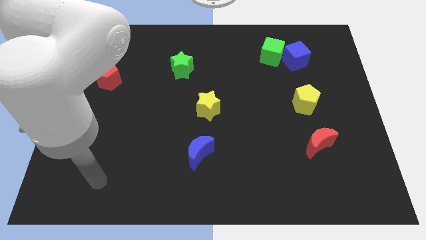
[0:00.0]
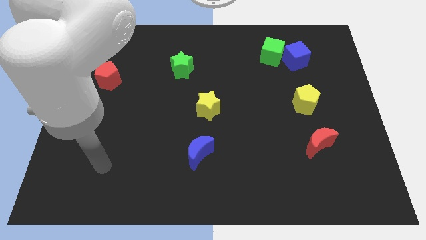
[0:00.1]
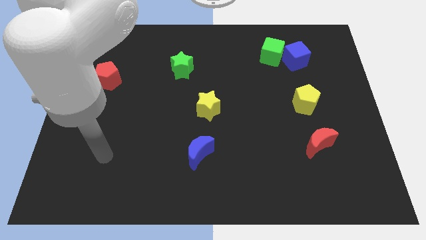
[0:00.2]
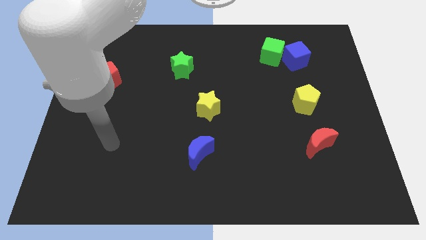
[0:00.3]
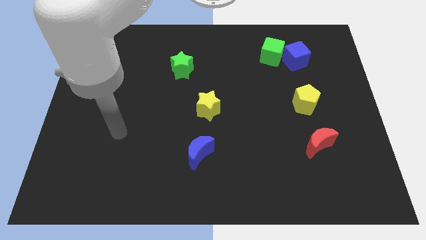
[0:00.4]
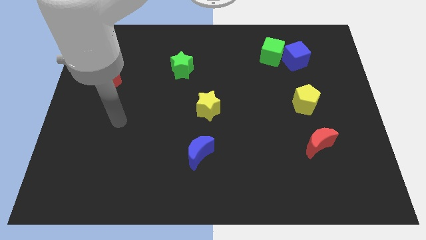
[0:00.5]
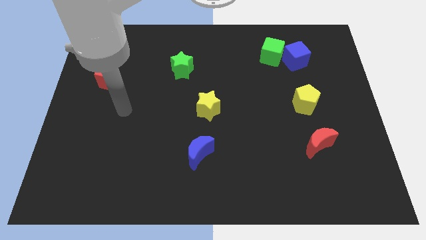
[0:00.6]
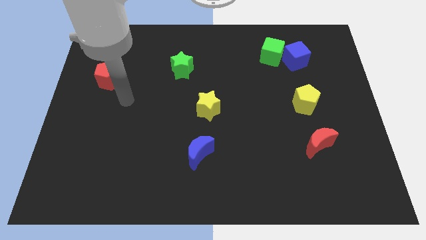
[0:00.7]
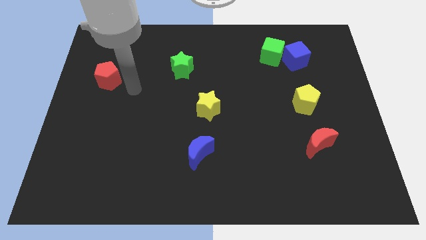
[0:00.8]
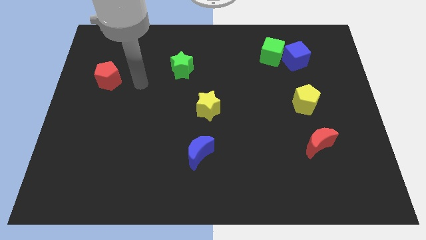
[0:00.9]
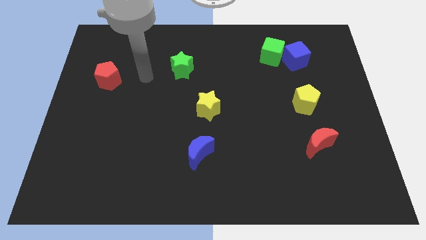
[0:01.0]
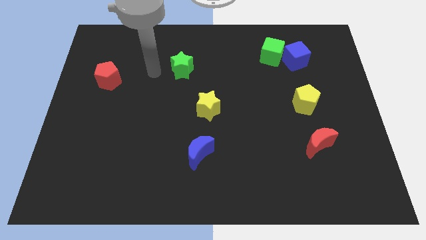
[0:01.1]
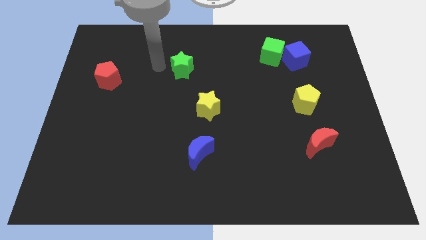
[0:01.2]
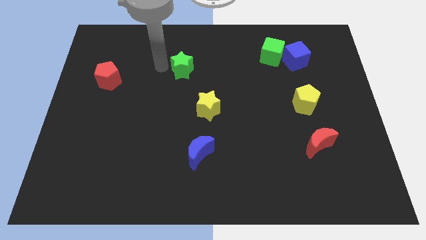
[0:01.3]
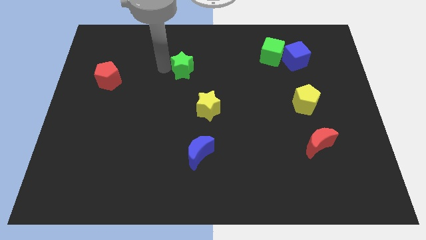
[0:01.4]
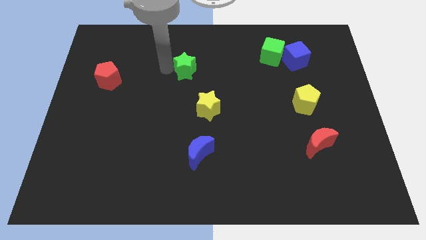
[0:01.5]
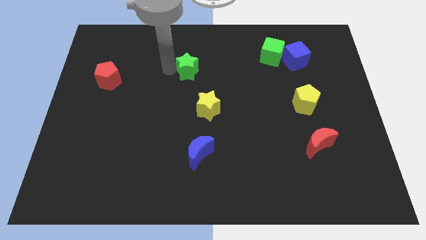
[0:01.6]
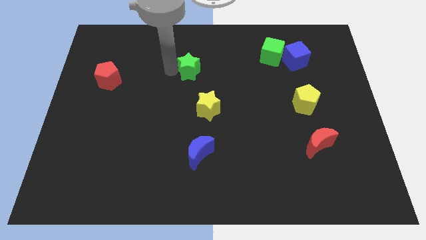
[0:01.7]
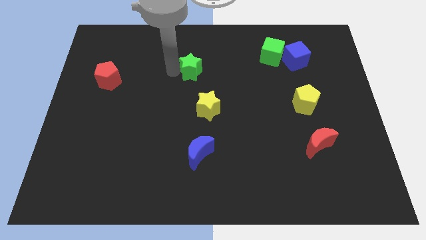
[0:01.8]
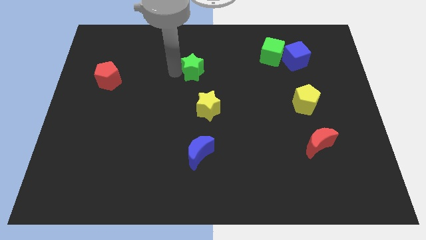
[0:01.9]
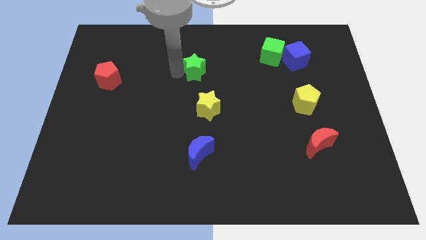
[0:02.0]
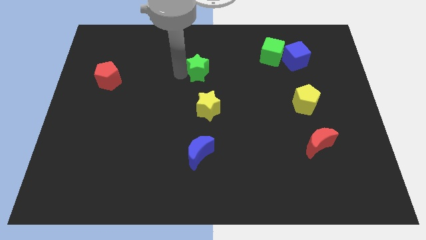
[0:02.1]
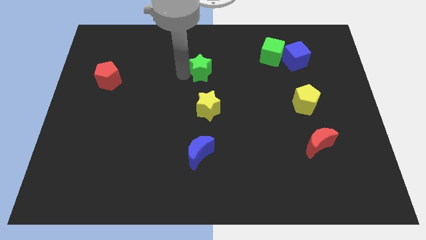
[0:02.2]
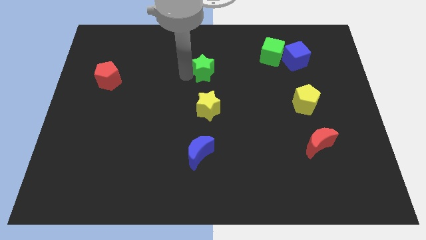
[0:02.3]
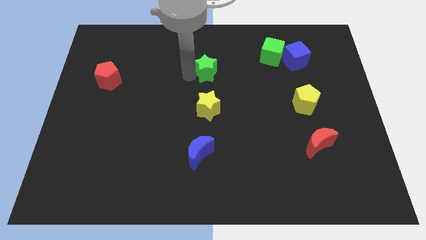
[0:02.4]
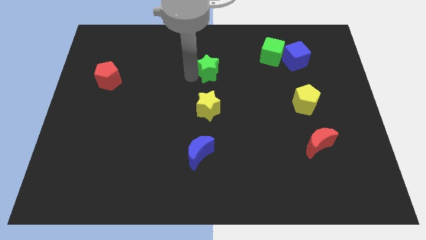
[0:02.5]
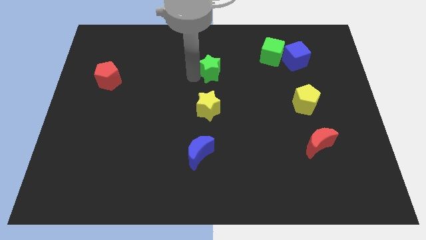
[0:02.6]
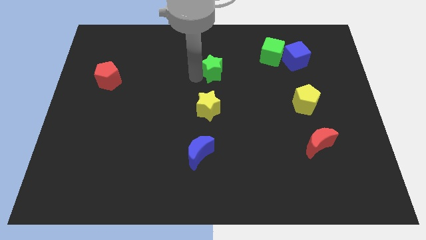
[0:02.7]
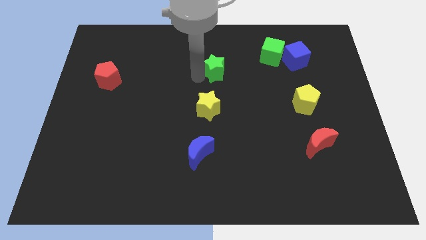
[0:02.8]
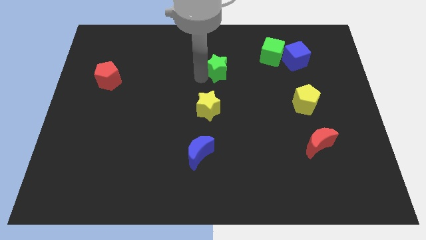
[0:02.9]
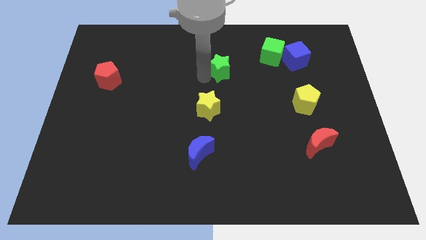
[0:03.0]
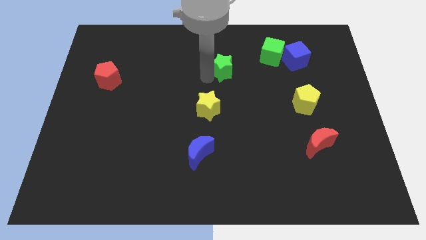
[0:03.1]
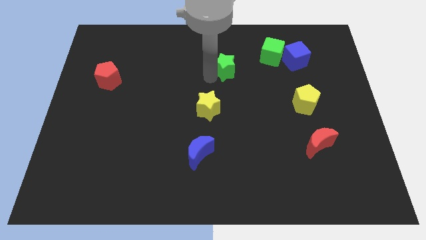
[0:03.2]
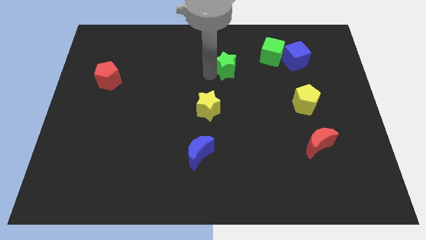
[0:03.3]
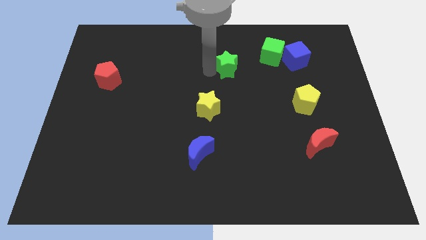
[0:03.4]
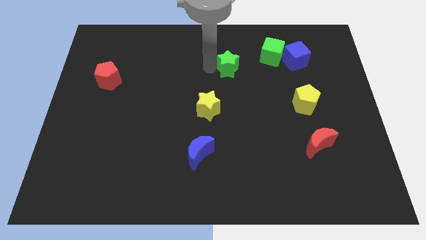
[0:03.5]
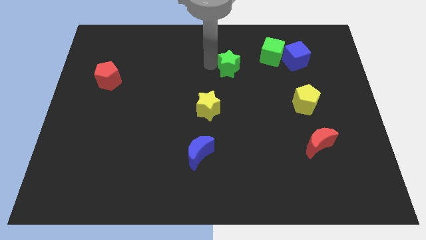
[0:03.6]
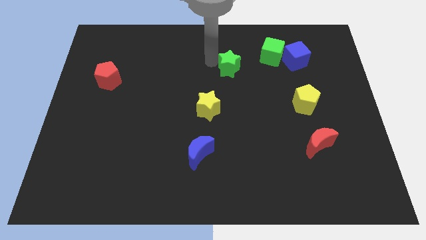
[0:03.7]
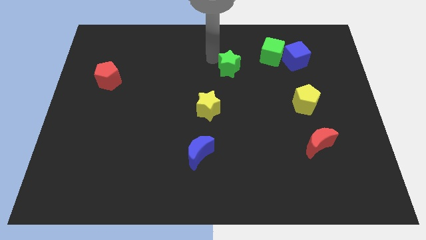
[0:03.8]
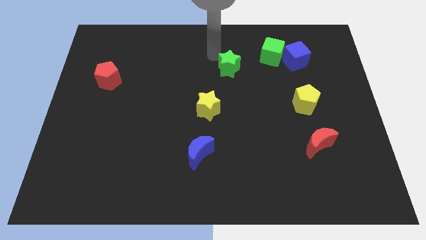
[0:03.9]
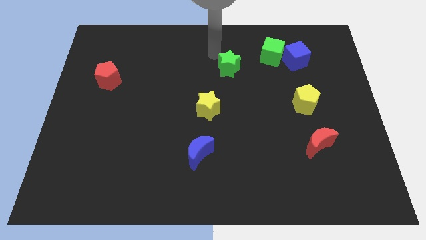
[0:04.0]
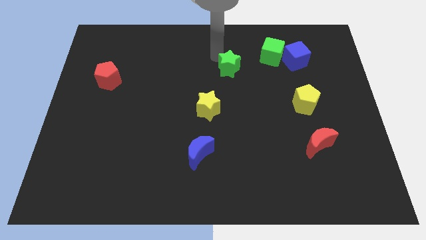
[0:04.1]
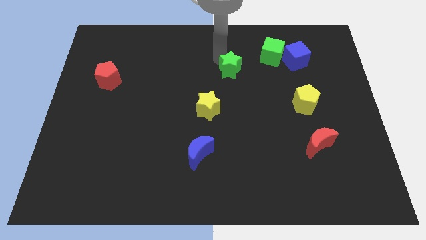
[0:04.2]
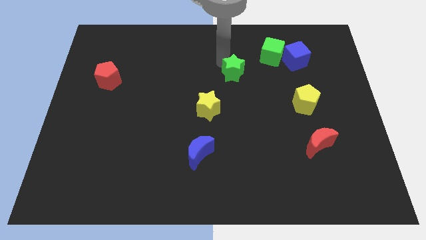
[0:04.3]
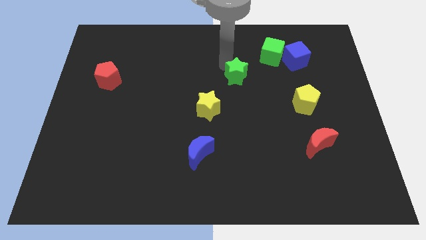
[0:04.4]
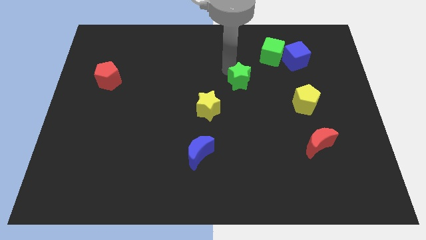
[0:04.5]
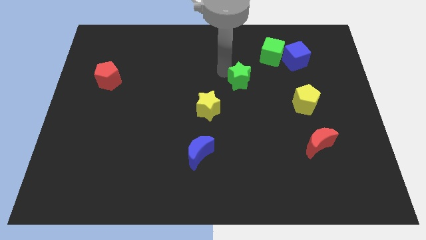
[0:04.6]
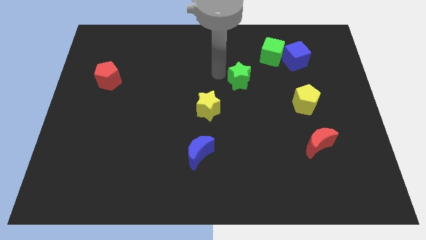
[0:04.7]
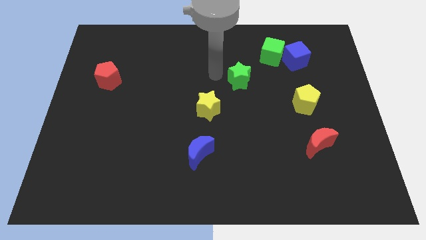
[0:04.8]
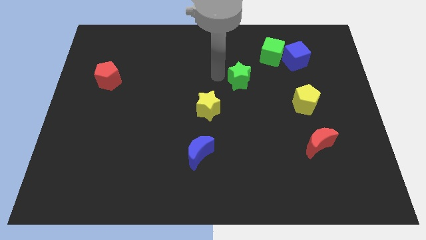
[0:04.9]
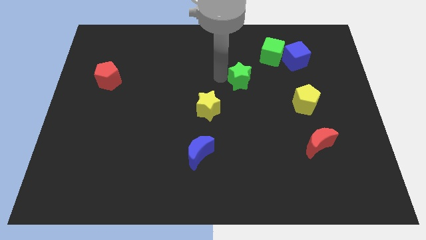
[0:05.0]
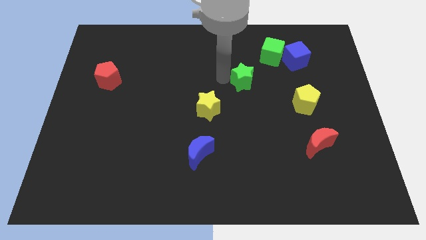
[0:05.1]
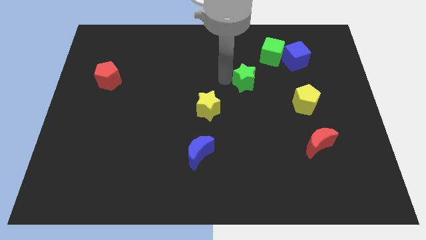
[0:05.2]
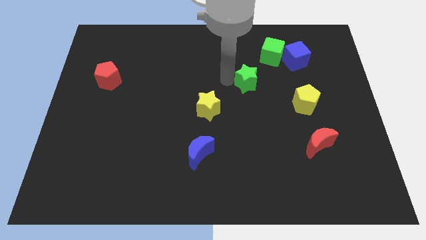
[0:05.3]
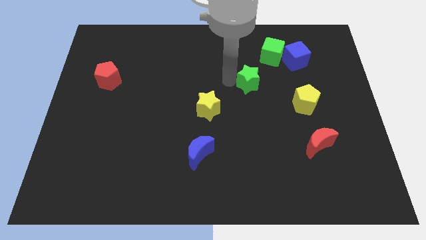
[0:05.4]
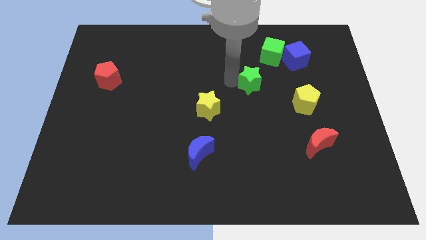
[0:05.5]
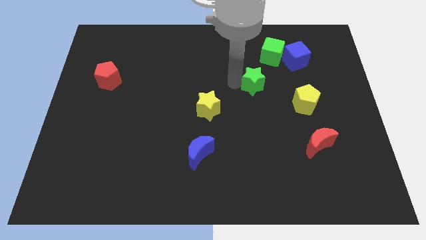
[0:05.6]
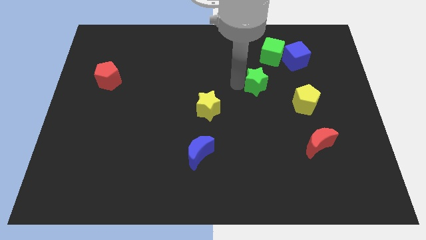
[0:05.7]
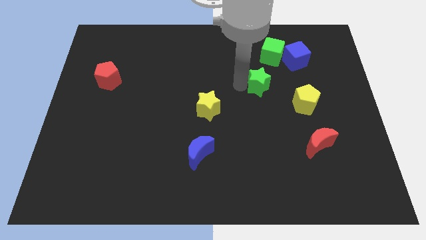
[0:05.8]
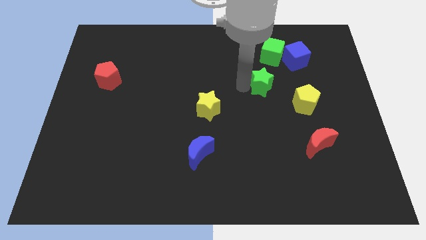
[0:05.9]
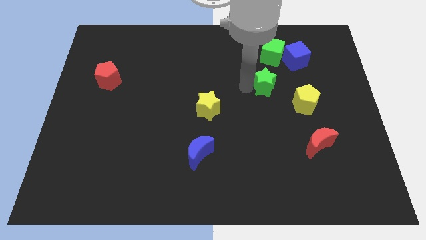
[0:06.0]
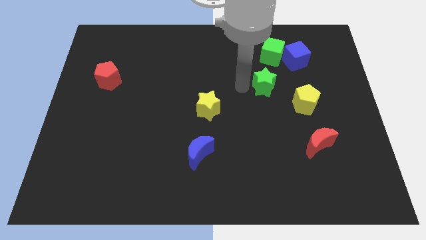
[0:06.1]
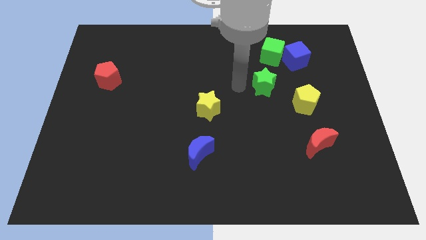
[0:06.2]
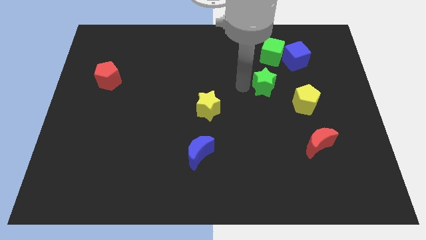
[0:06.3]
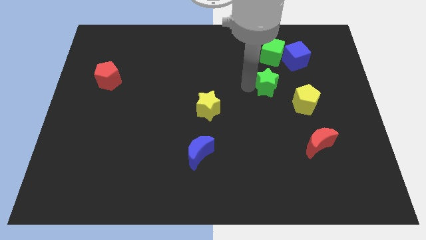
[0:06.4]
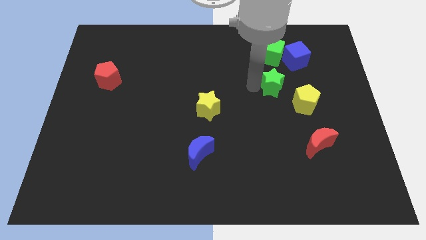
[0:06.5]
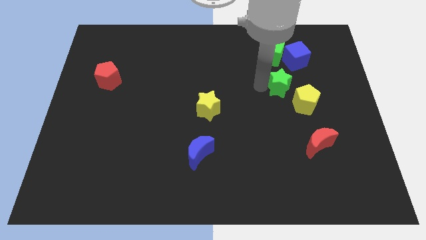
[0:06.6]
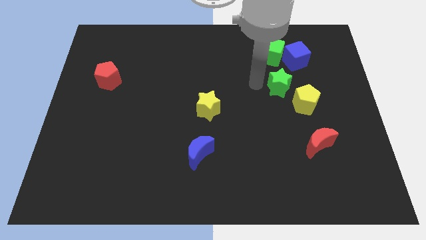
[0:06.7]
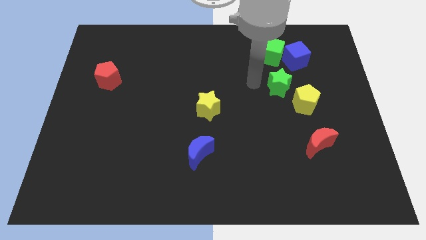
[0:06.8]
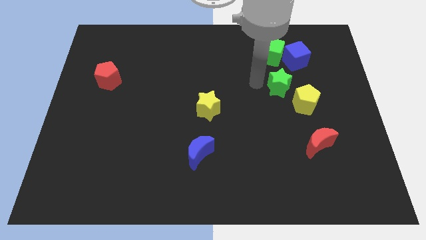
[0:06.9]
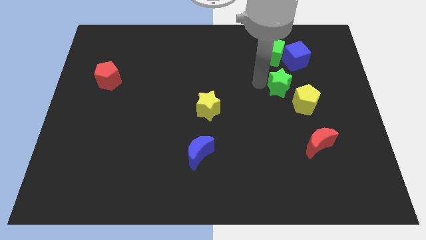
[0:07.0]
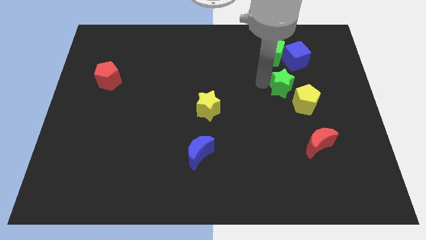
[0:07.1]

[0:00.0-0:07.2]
push the green star to the bottom of the blue cube
